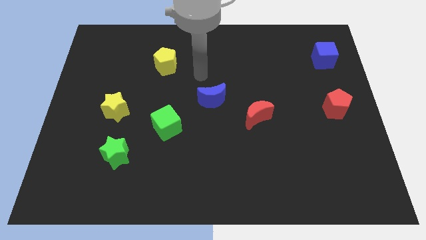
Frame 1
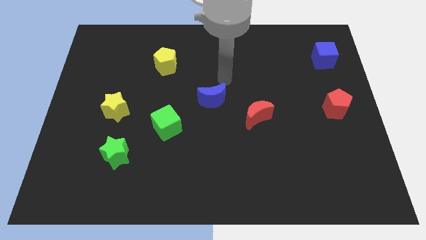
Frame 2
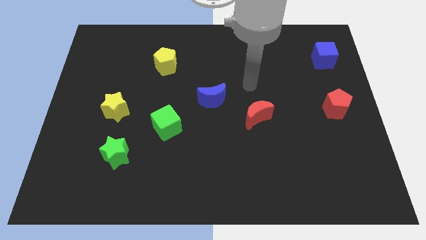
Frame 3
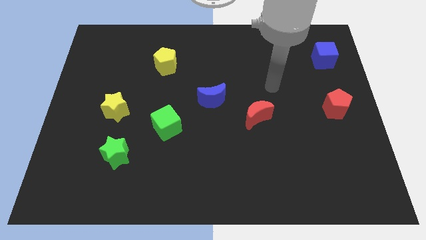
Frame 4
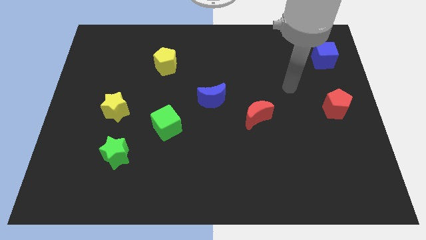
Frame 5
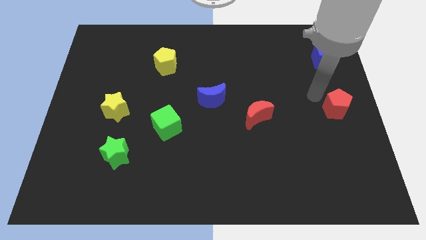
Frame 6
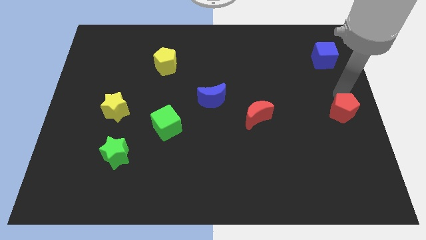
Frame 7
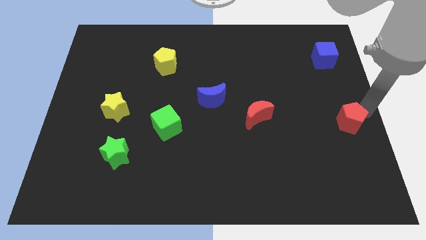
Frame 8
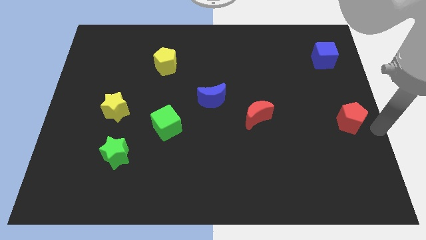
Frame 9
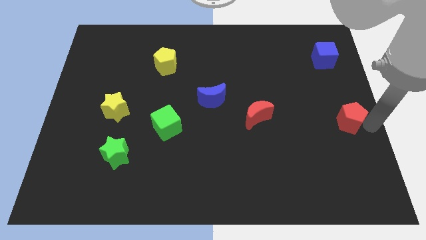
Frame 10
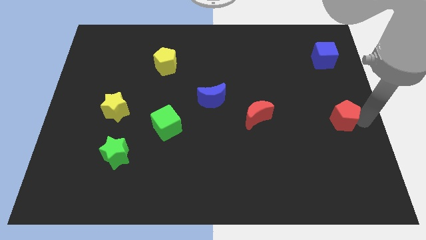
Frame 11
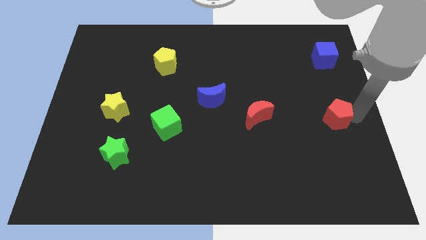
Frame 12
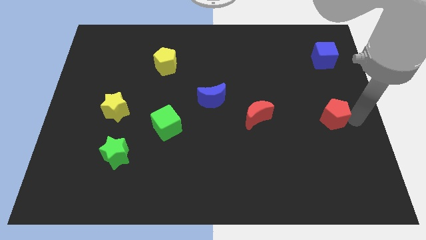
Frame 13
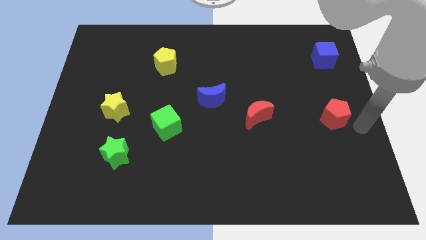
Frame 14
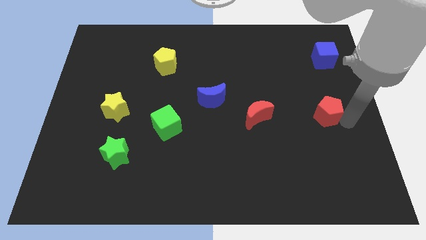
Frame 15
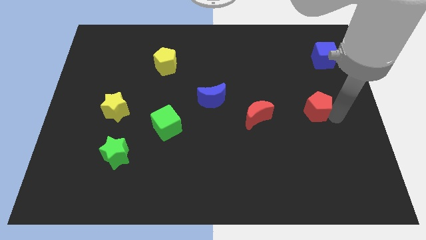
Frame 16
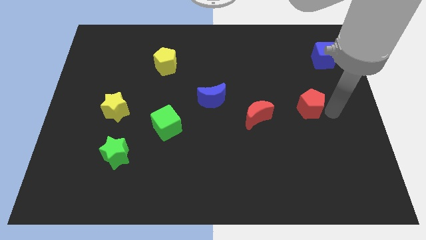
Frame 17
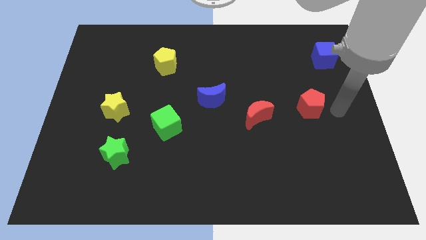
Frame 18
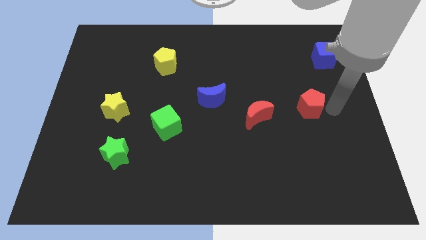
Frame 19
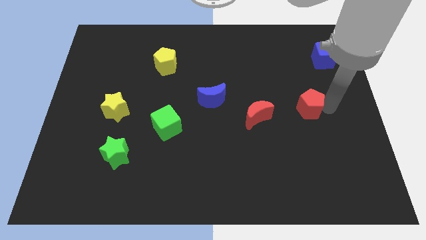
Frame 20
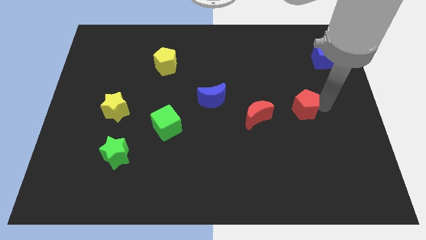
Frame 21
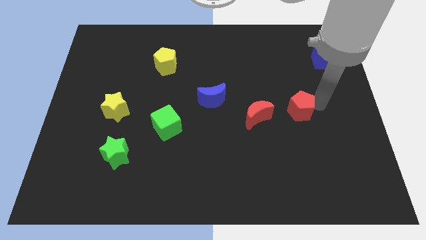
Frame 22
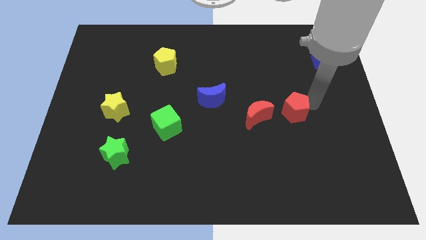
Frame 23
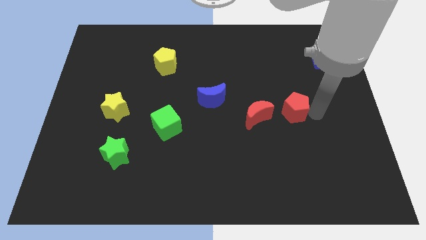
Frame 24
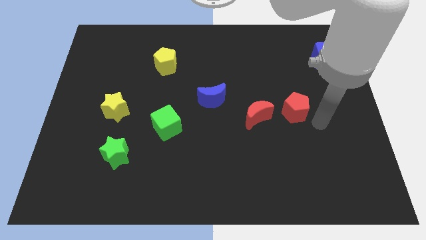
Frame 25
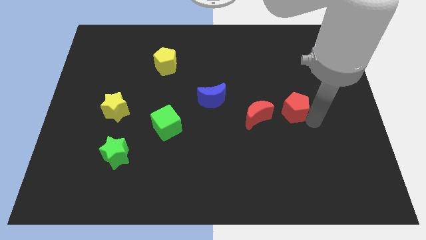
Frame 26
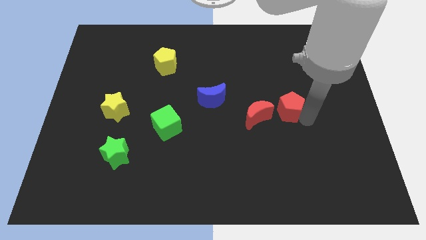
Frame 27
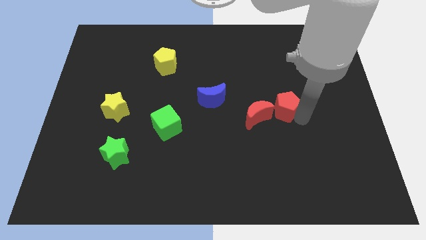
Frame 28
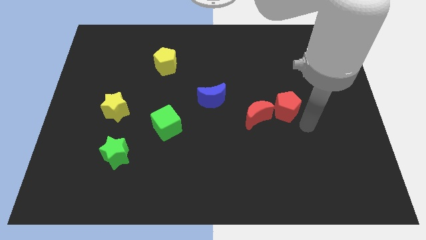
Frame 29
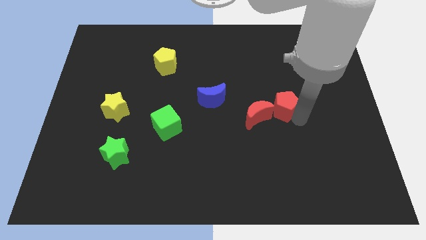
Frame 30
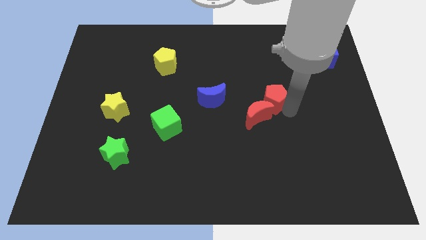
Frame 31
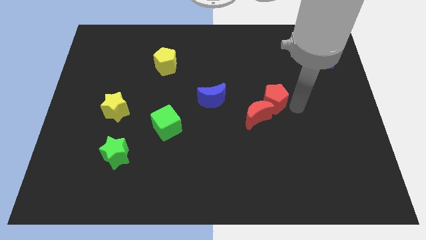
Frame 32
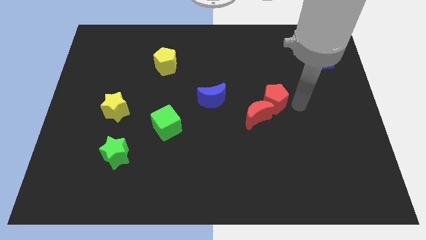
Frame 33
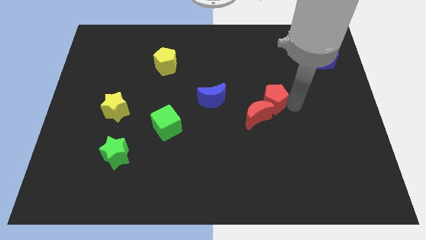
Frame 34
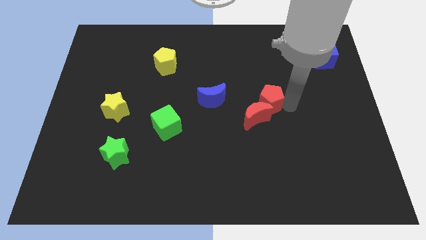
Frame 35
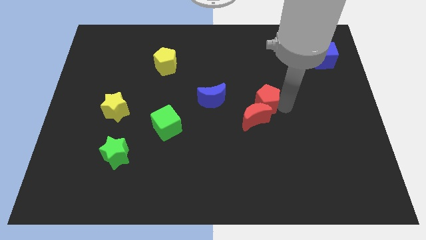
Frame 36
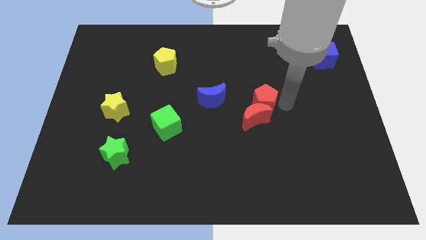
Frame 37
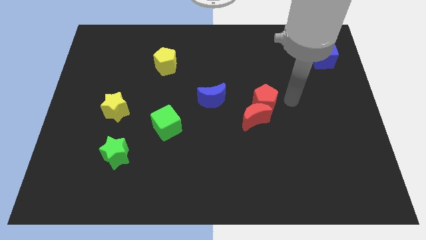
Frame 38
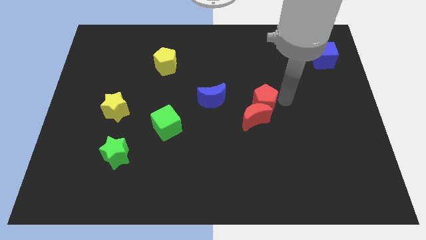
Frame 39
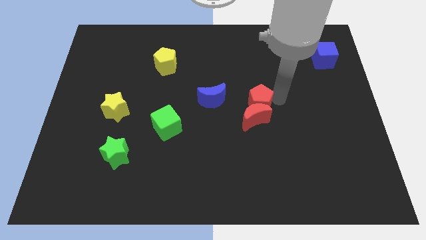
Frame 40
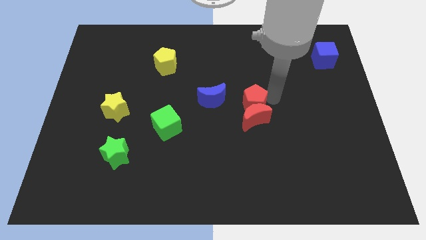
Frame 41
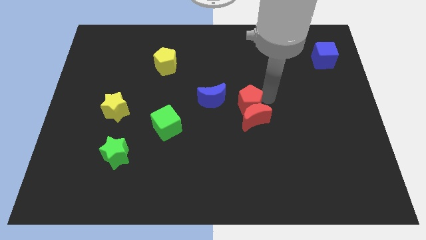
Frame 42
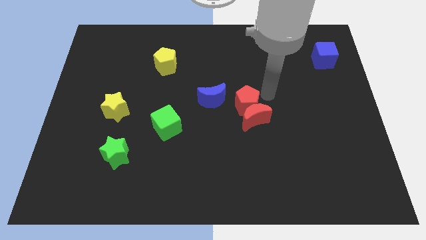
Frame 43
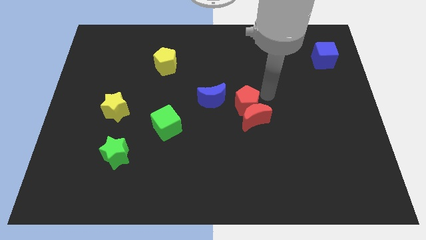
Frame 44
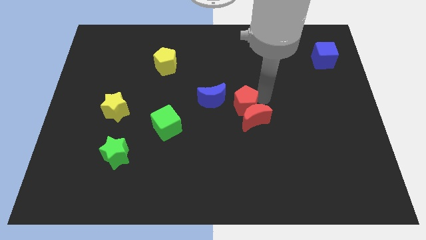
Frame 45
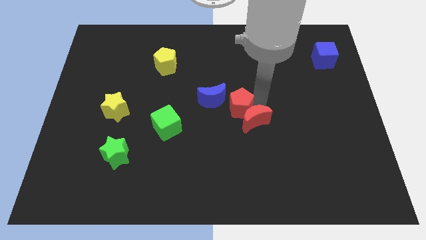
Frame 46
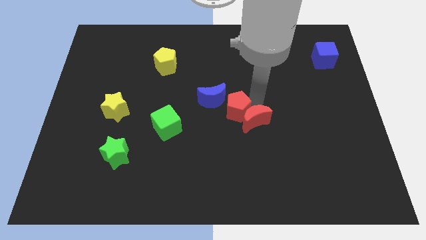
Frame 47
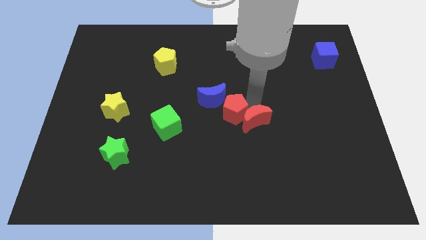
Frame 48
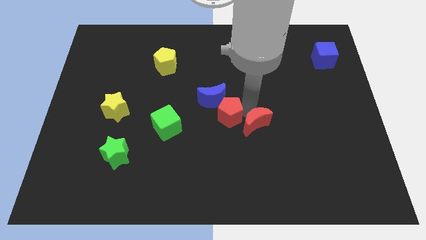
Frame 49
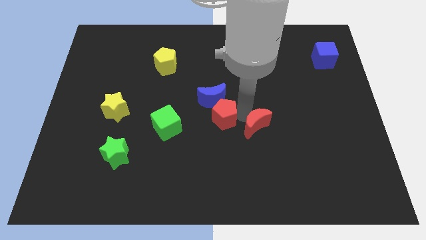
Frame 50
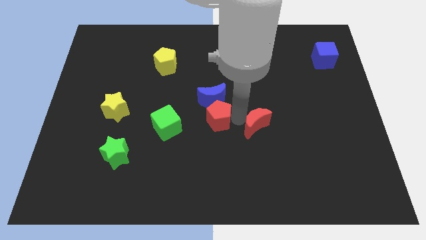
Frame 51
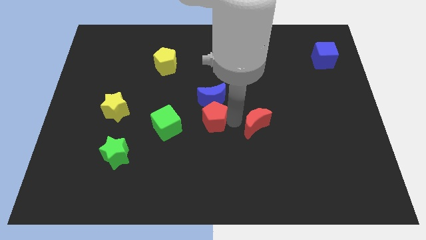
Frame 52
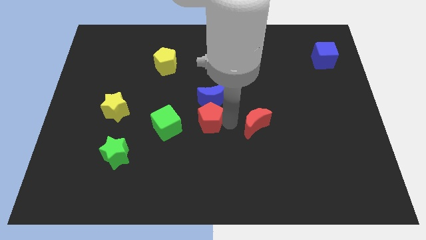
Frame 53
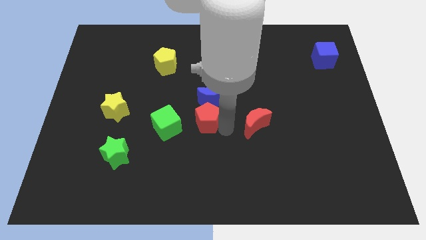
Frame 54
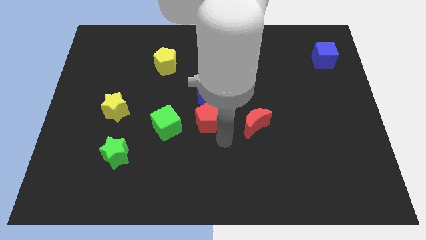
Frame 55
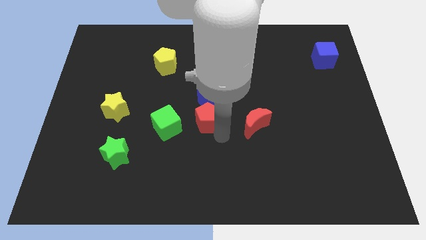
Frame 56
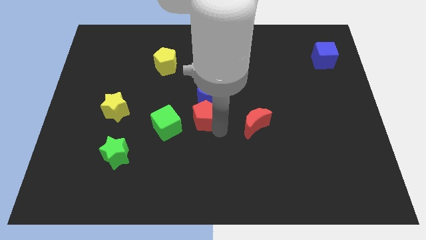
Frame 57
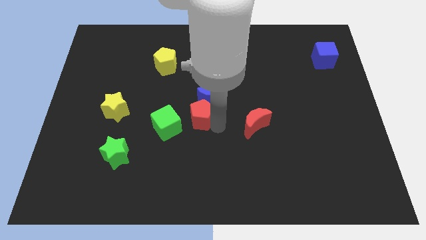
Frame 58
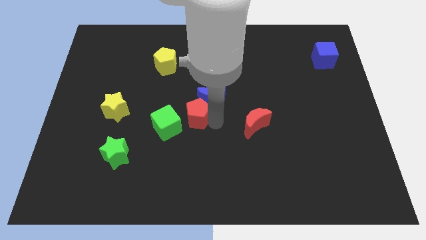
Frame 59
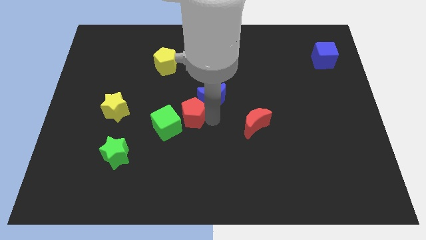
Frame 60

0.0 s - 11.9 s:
put the red pentagon left of the blue moon

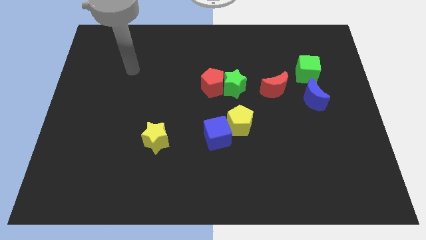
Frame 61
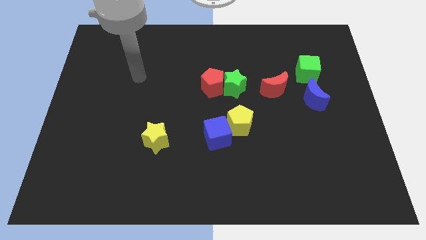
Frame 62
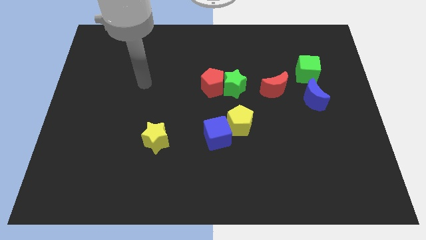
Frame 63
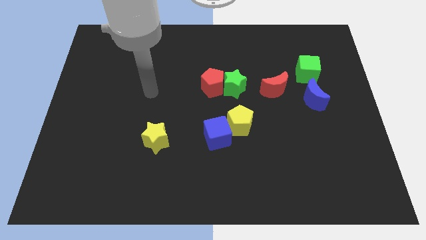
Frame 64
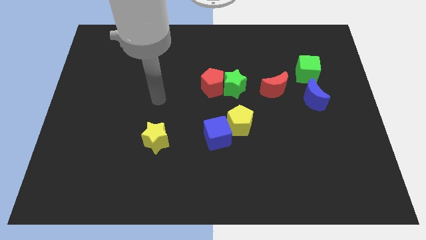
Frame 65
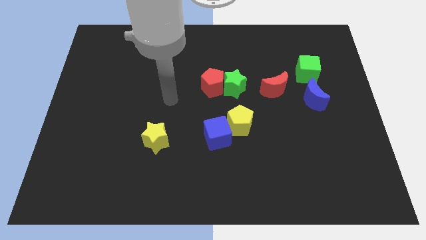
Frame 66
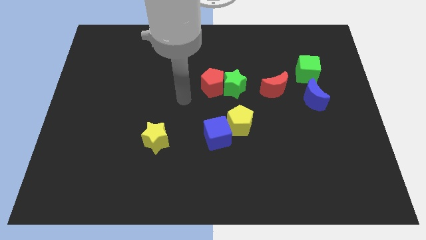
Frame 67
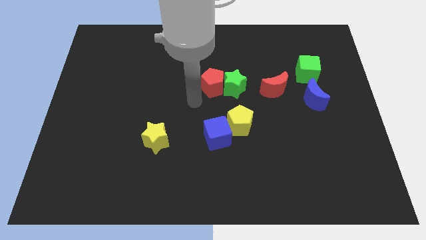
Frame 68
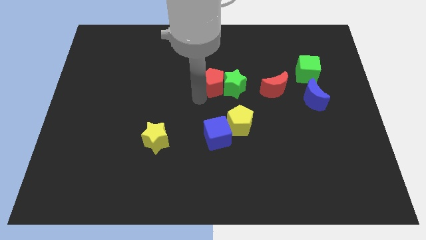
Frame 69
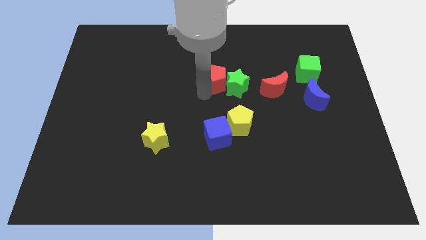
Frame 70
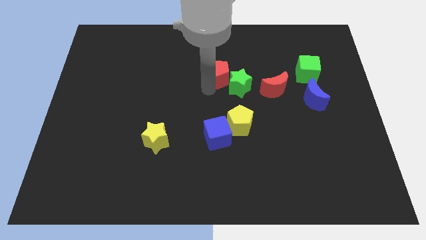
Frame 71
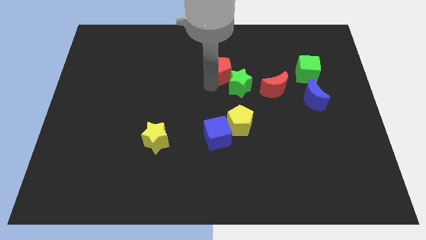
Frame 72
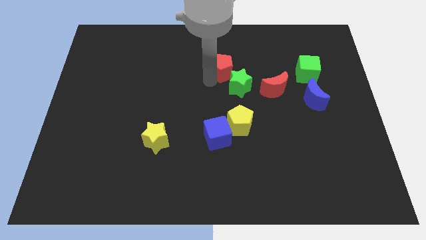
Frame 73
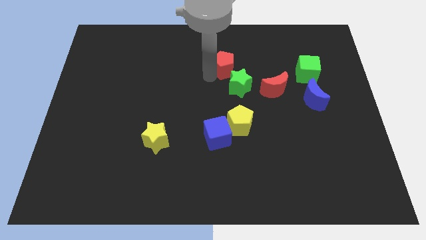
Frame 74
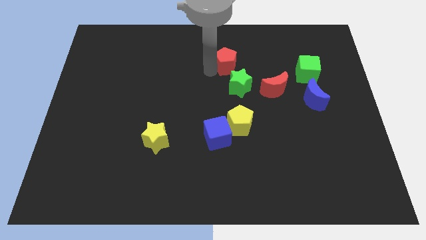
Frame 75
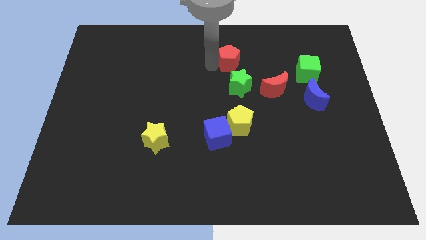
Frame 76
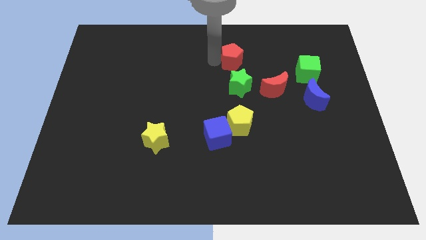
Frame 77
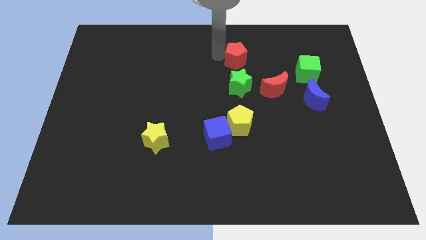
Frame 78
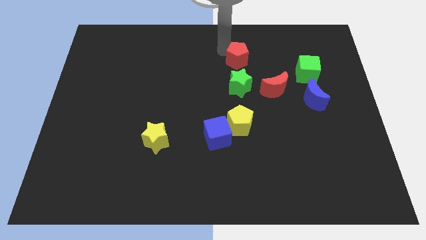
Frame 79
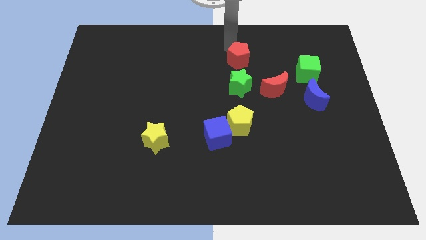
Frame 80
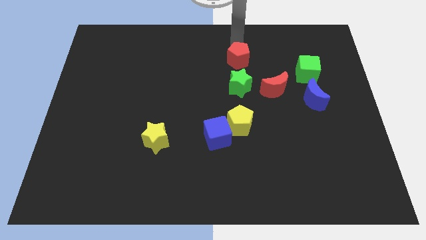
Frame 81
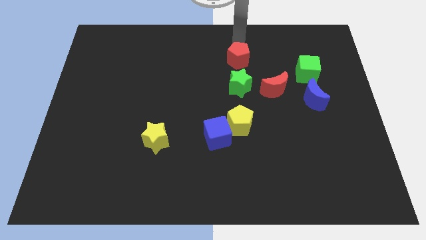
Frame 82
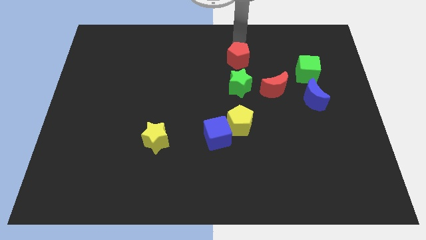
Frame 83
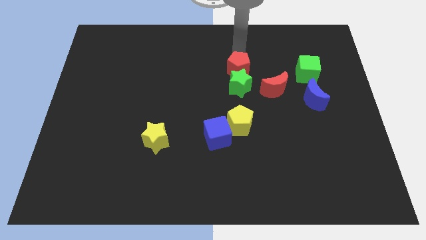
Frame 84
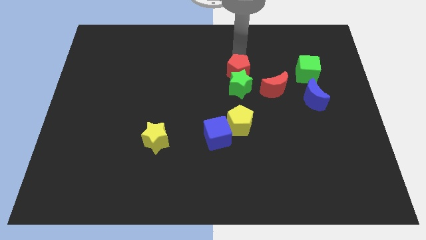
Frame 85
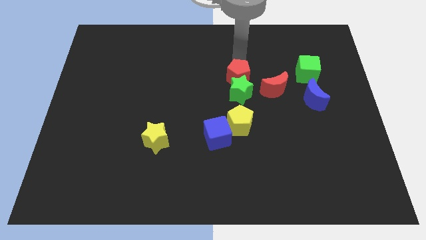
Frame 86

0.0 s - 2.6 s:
put the red pentagon above the yellow pentagon
